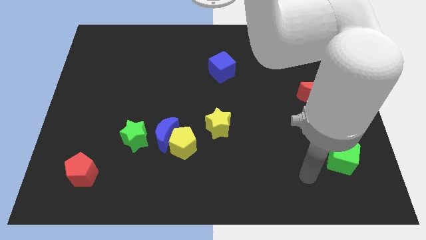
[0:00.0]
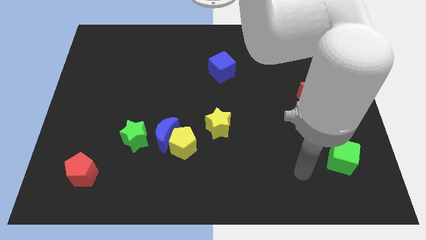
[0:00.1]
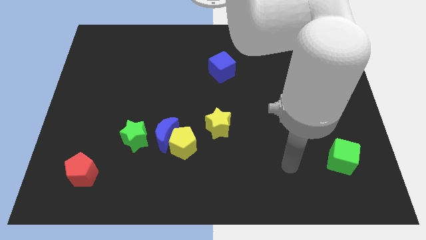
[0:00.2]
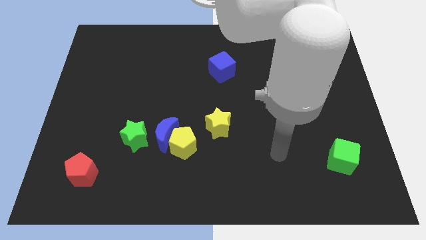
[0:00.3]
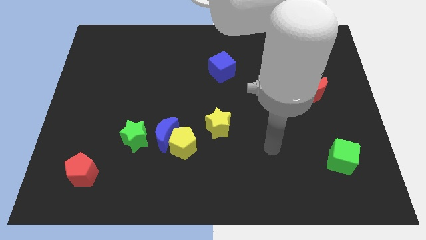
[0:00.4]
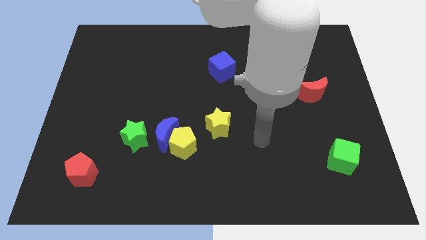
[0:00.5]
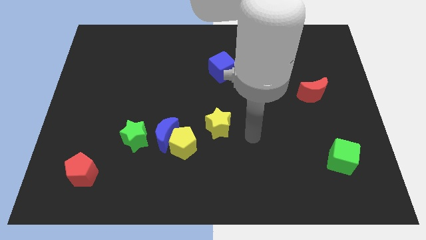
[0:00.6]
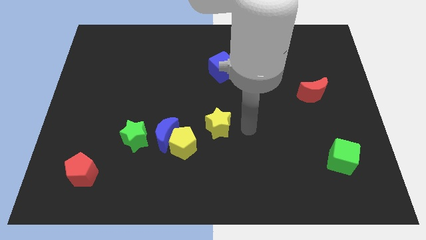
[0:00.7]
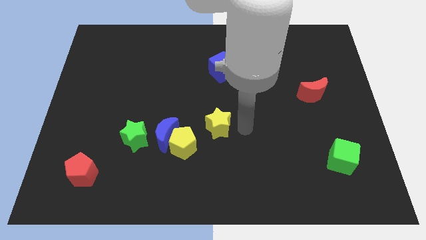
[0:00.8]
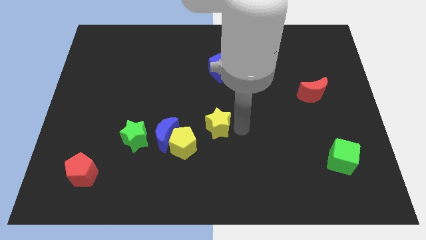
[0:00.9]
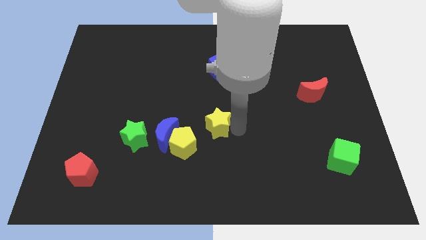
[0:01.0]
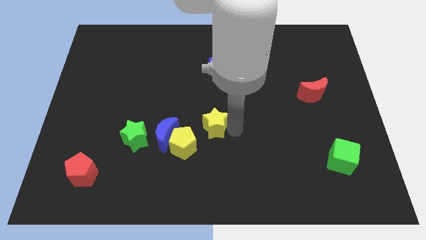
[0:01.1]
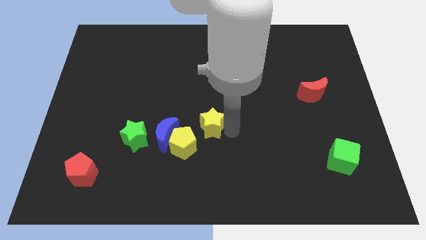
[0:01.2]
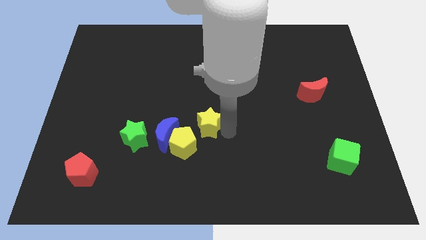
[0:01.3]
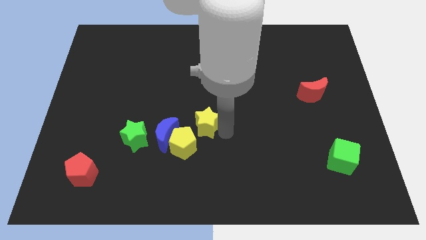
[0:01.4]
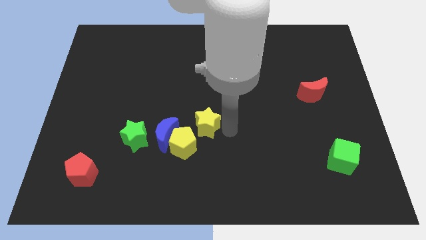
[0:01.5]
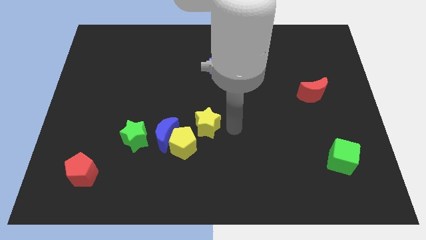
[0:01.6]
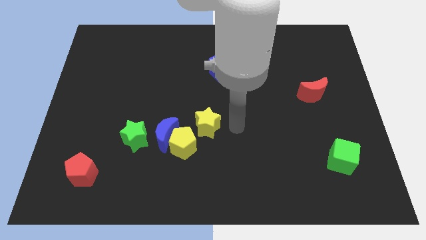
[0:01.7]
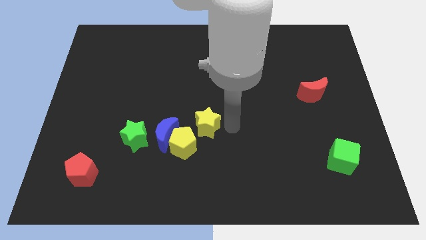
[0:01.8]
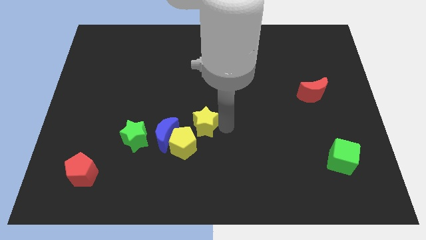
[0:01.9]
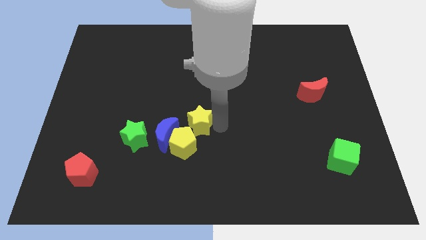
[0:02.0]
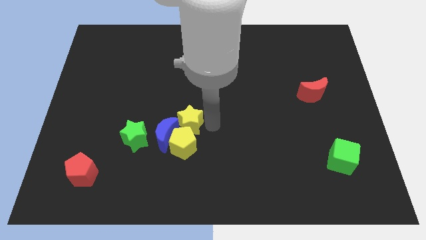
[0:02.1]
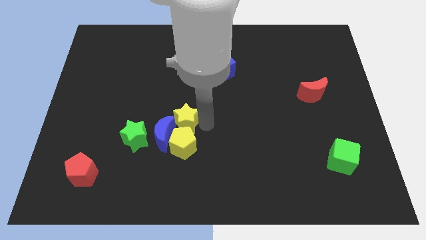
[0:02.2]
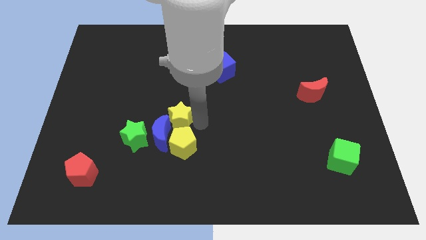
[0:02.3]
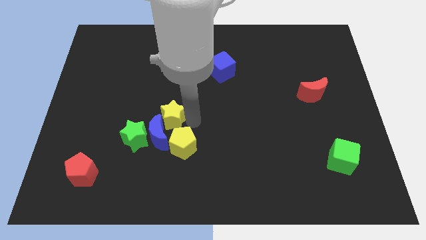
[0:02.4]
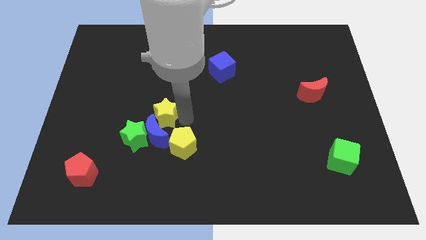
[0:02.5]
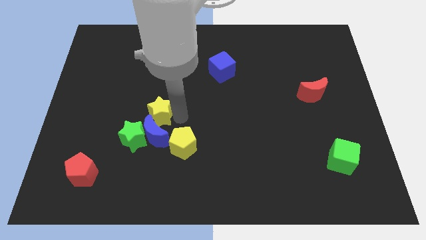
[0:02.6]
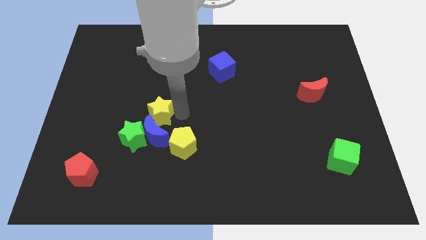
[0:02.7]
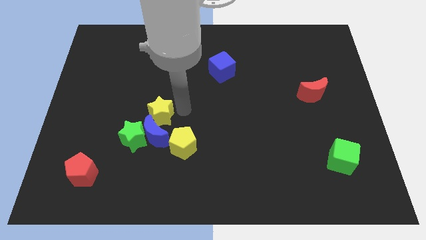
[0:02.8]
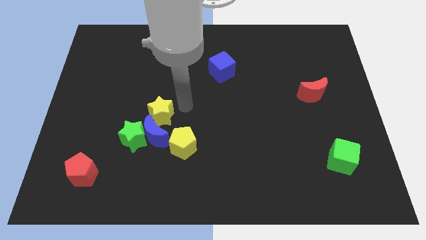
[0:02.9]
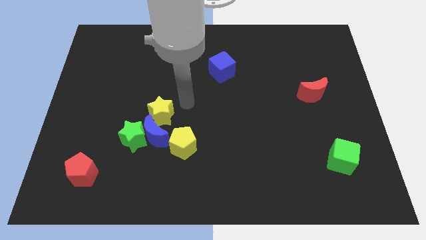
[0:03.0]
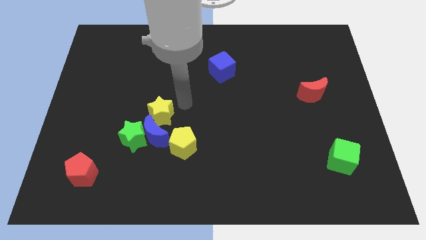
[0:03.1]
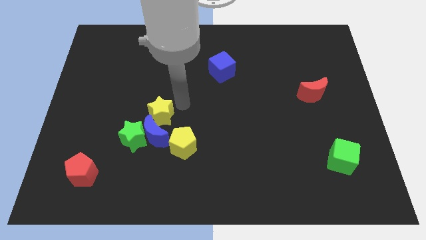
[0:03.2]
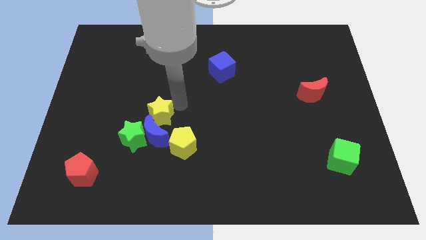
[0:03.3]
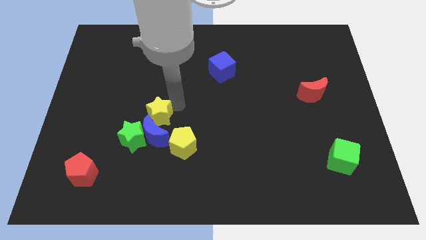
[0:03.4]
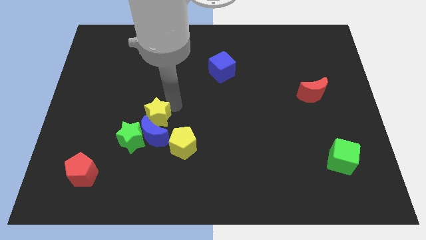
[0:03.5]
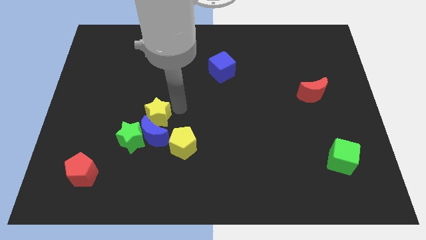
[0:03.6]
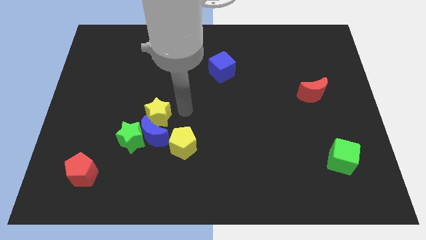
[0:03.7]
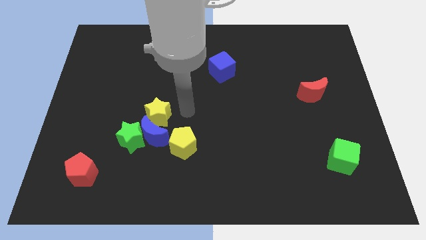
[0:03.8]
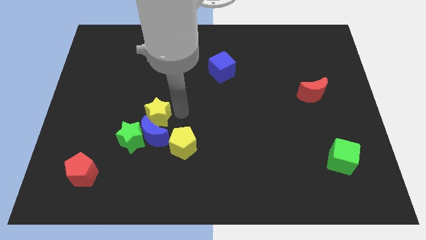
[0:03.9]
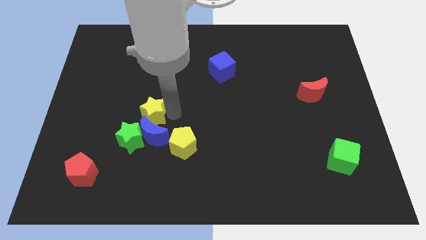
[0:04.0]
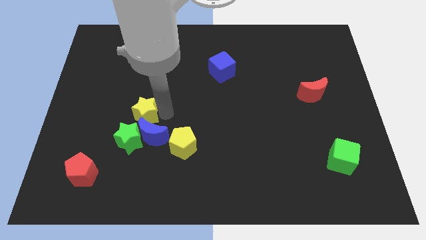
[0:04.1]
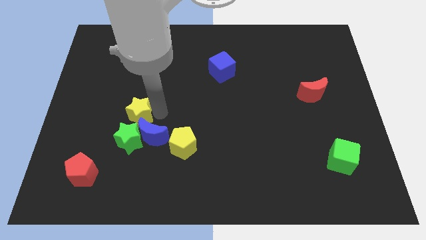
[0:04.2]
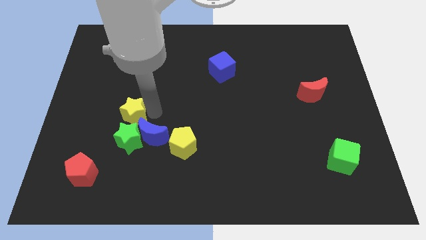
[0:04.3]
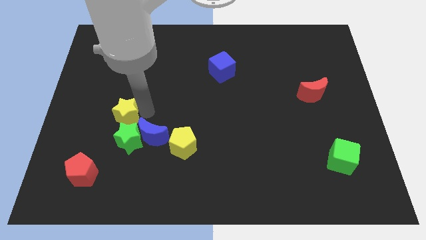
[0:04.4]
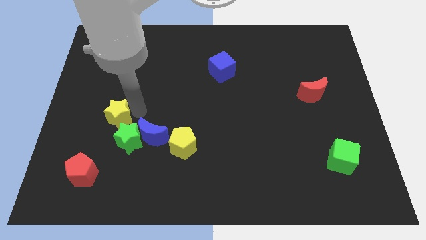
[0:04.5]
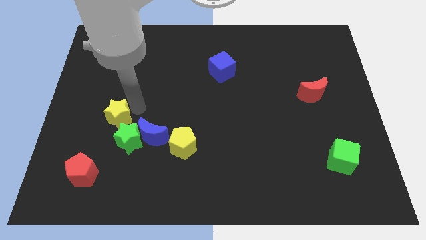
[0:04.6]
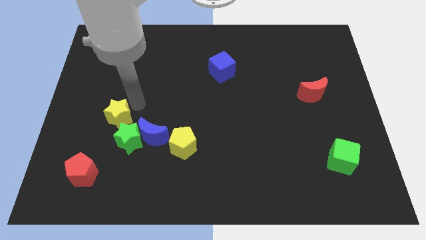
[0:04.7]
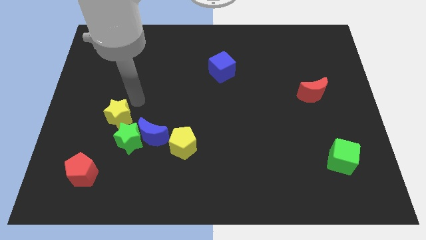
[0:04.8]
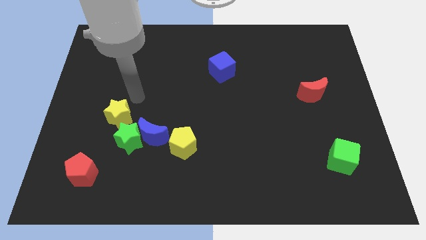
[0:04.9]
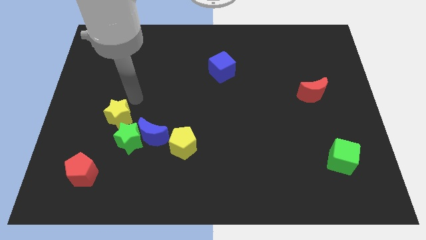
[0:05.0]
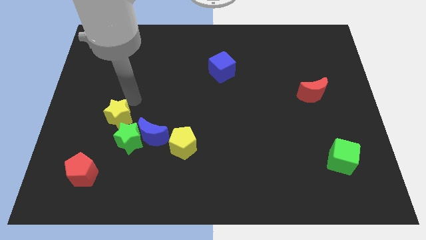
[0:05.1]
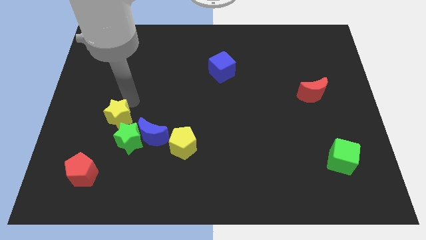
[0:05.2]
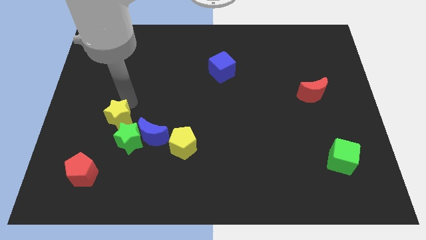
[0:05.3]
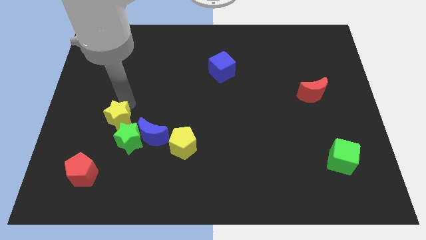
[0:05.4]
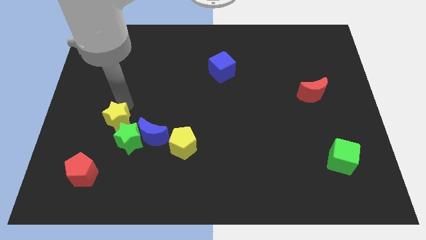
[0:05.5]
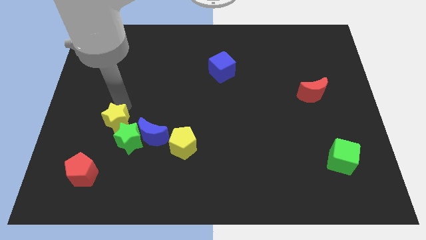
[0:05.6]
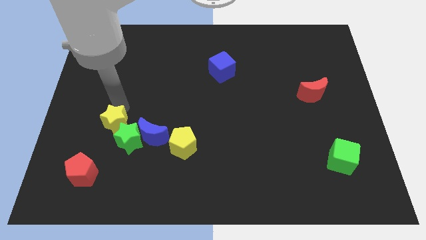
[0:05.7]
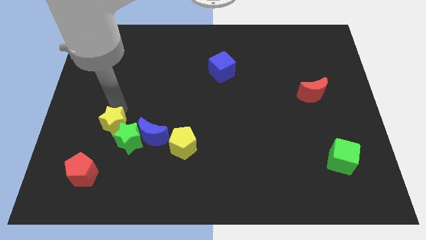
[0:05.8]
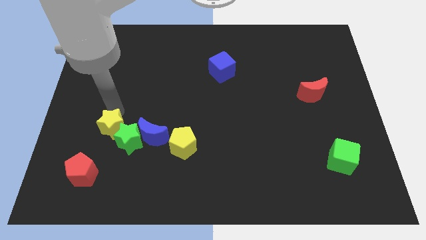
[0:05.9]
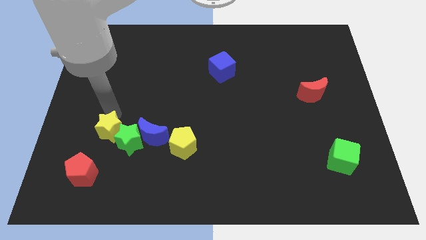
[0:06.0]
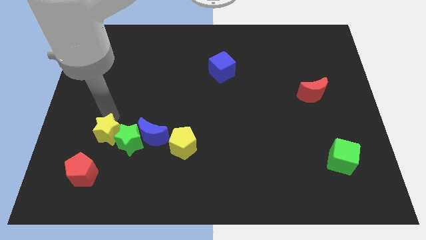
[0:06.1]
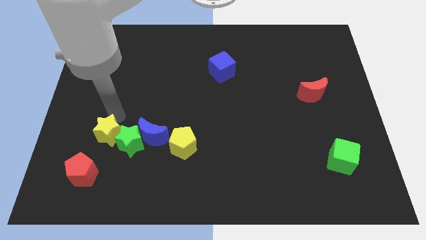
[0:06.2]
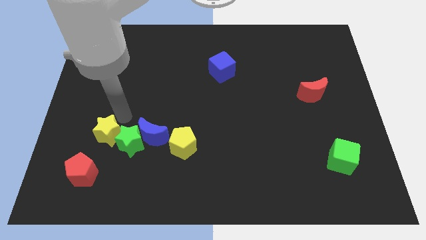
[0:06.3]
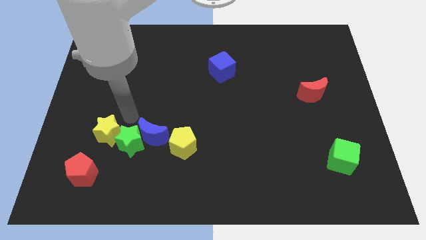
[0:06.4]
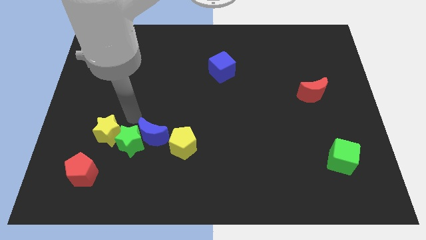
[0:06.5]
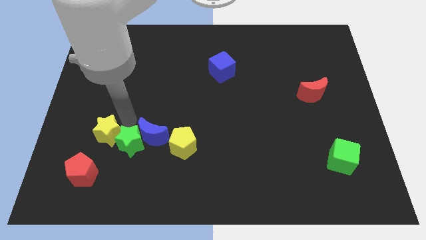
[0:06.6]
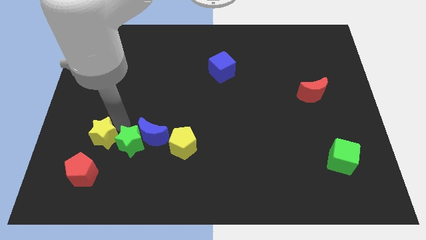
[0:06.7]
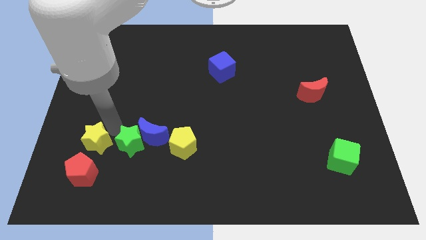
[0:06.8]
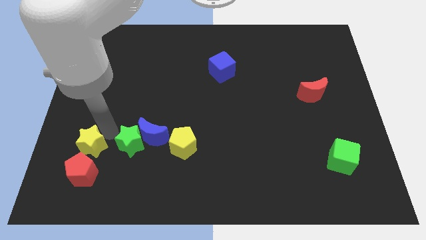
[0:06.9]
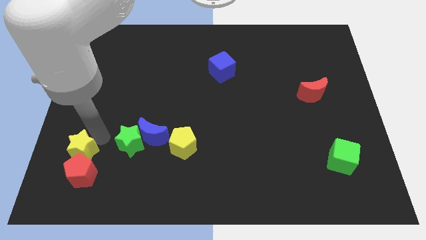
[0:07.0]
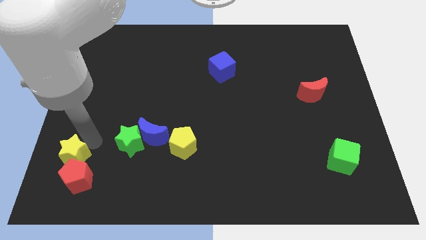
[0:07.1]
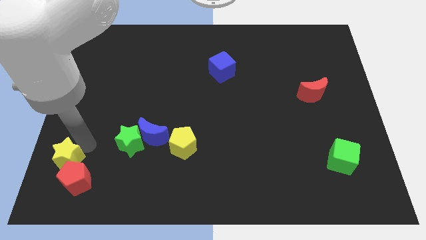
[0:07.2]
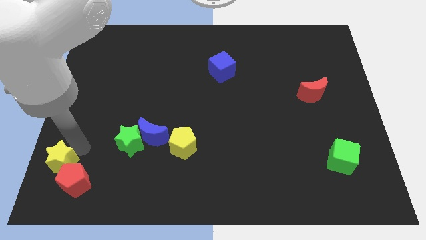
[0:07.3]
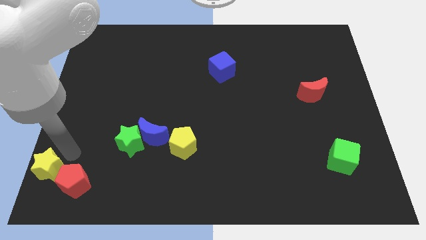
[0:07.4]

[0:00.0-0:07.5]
put the yellow star to the bottom left
